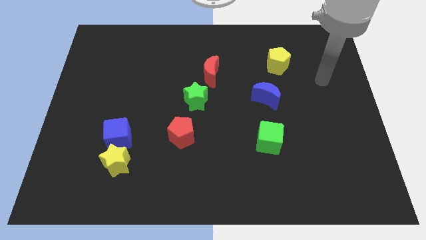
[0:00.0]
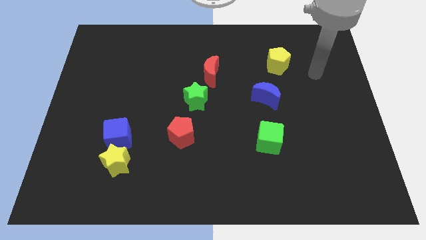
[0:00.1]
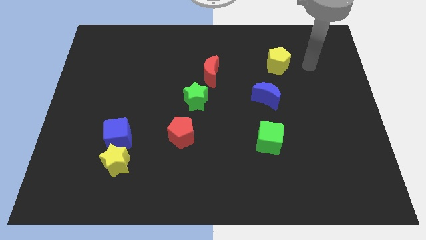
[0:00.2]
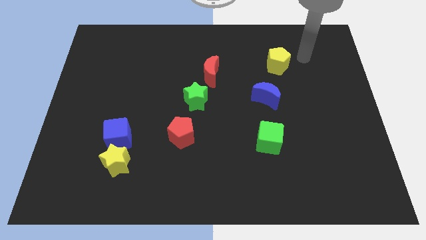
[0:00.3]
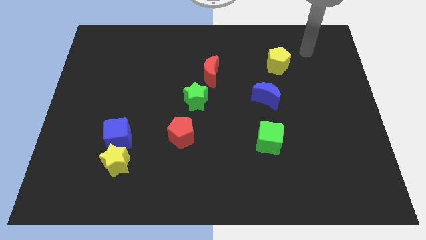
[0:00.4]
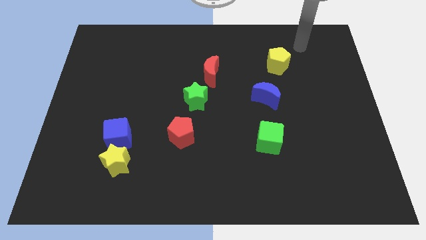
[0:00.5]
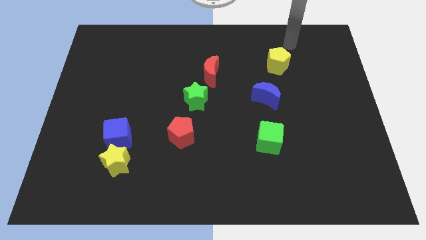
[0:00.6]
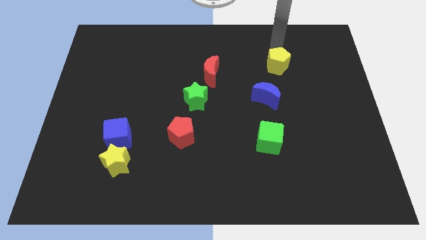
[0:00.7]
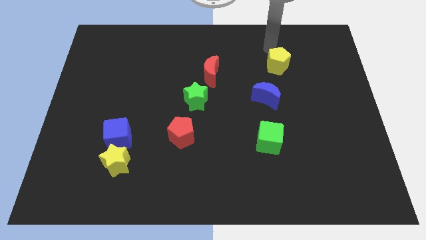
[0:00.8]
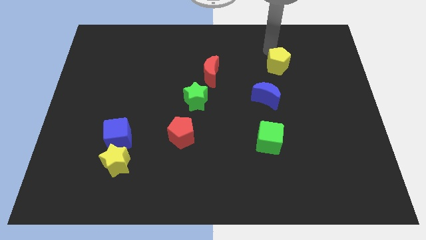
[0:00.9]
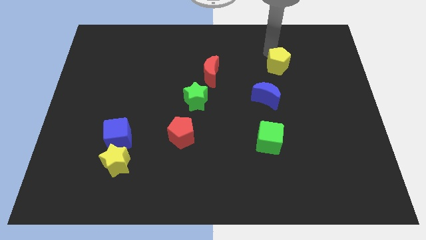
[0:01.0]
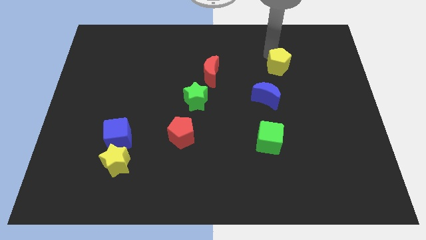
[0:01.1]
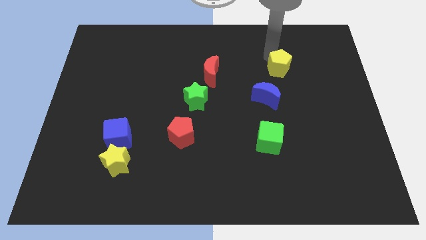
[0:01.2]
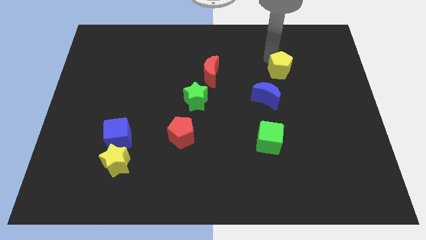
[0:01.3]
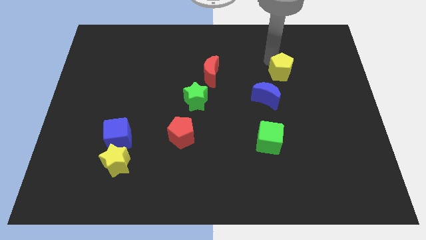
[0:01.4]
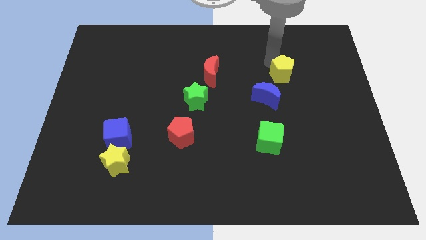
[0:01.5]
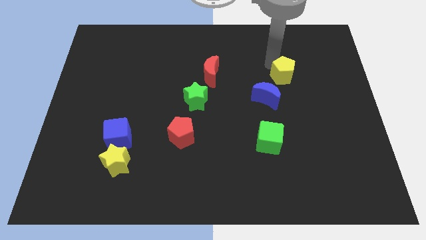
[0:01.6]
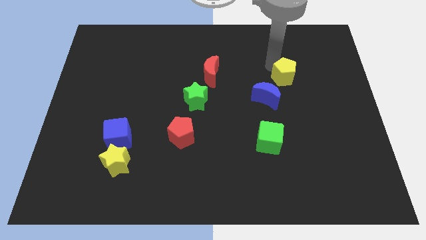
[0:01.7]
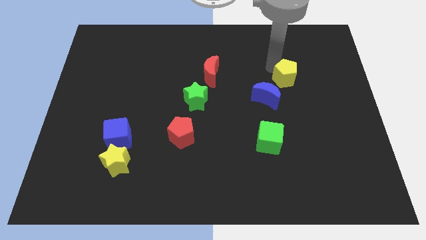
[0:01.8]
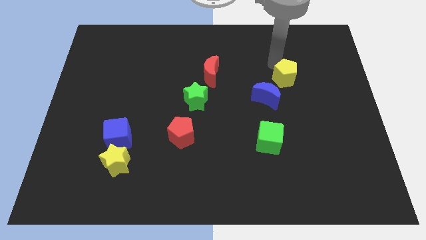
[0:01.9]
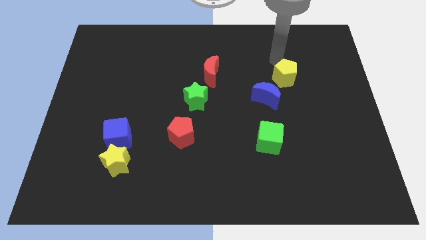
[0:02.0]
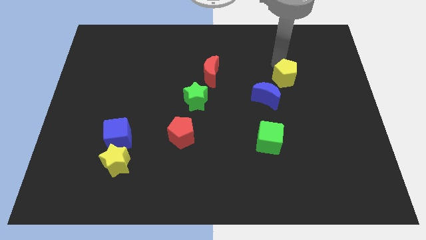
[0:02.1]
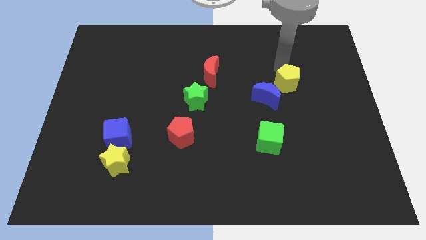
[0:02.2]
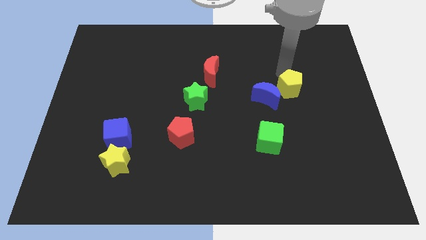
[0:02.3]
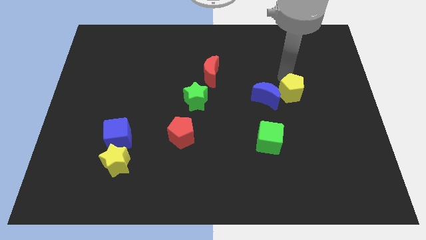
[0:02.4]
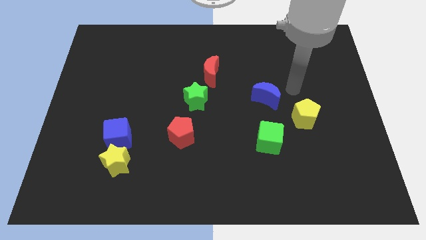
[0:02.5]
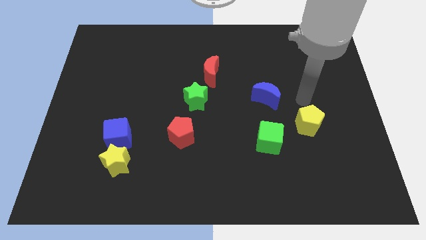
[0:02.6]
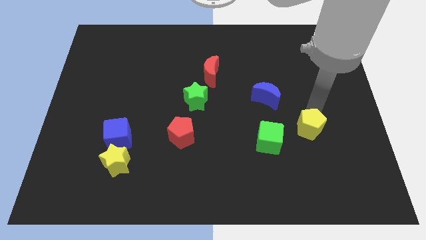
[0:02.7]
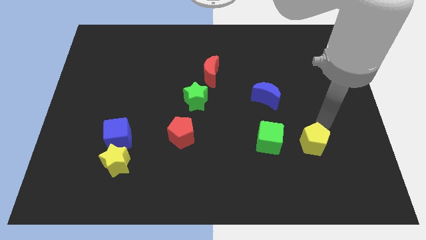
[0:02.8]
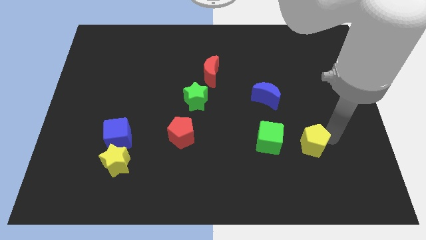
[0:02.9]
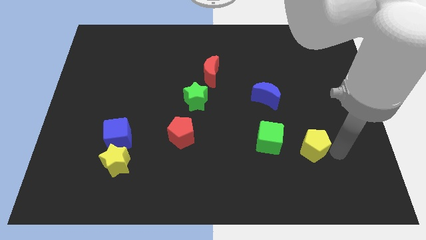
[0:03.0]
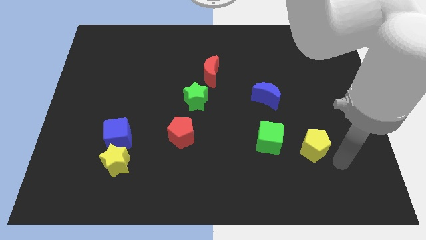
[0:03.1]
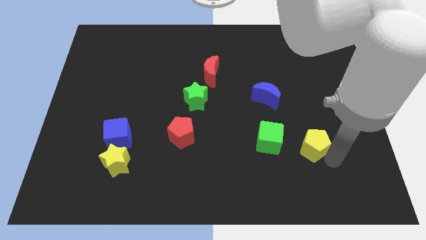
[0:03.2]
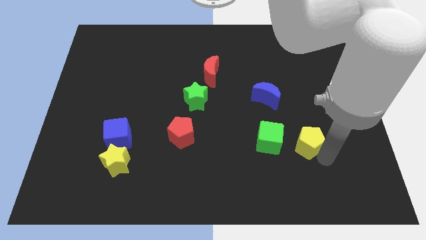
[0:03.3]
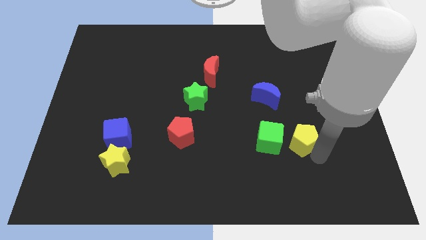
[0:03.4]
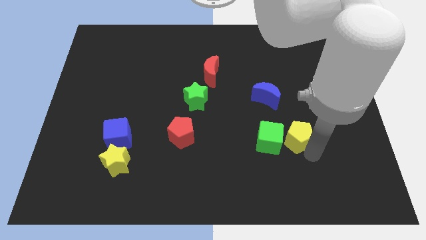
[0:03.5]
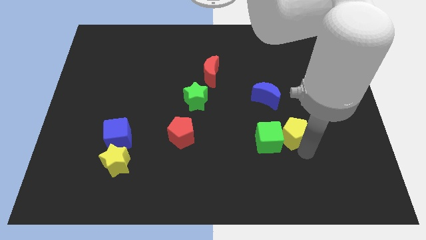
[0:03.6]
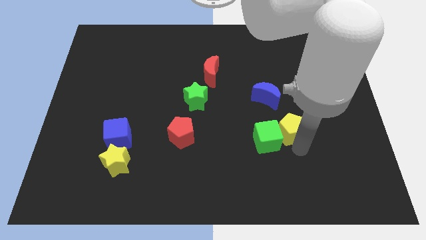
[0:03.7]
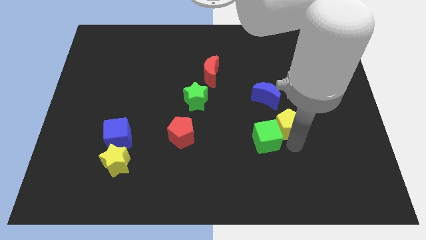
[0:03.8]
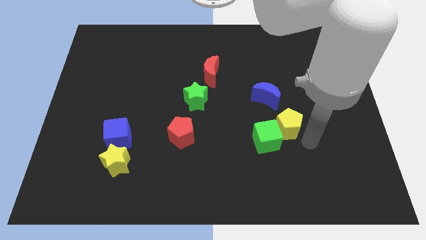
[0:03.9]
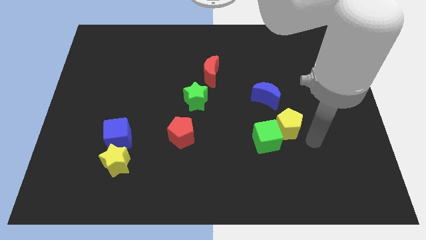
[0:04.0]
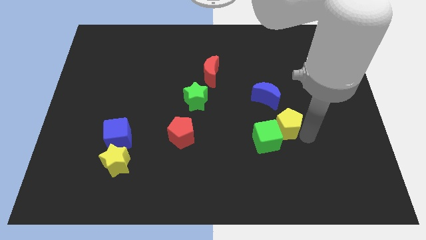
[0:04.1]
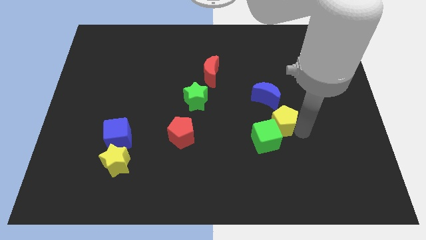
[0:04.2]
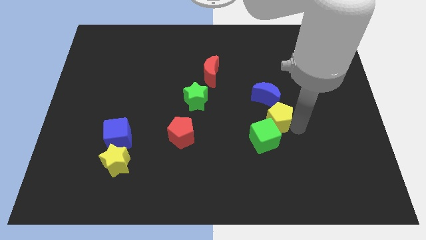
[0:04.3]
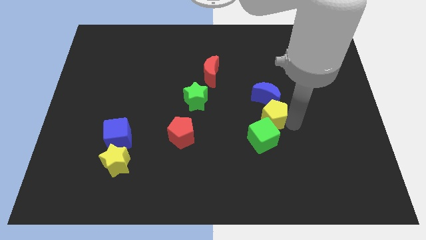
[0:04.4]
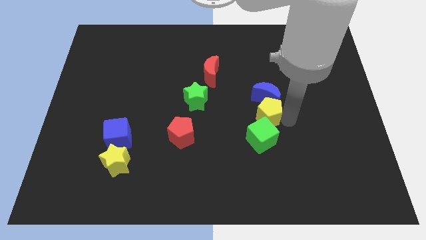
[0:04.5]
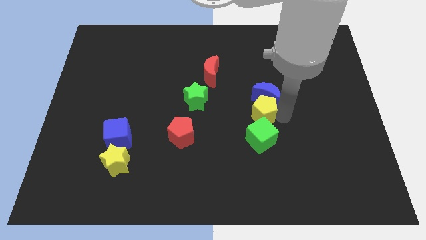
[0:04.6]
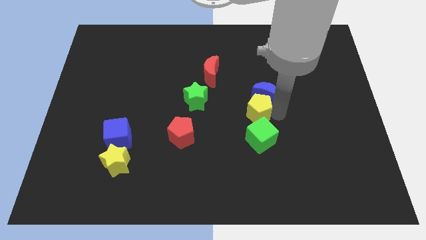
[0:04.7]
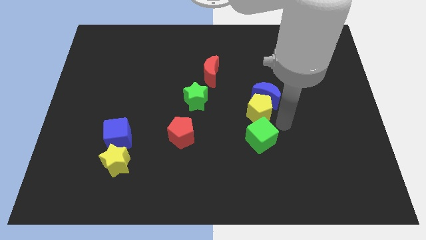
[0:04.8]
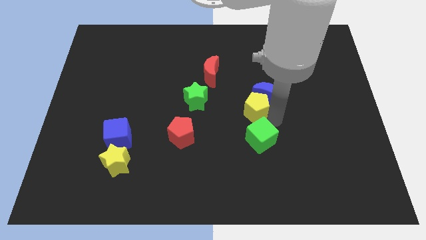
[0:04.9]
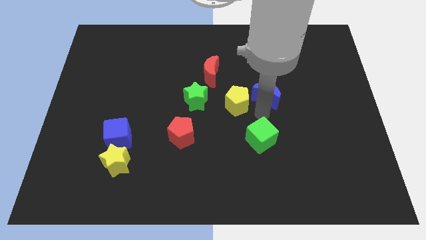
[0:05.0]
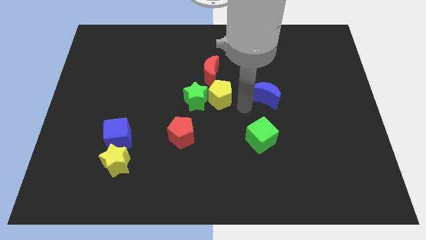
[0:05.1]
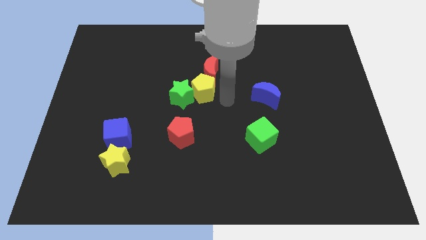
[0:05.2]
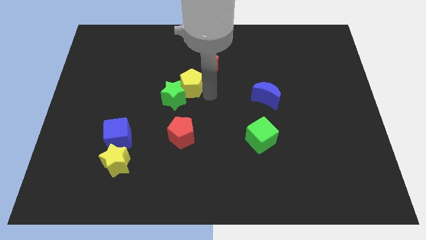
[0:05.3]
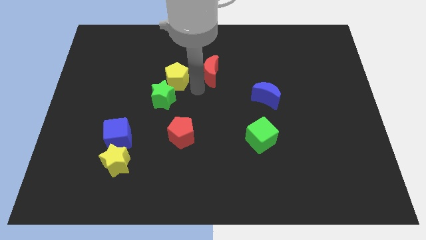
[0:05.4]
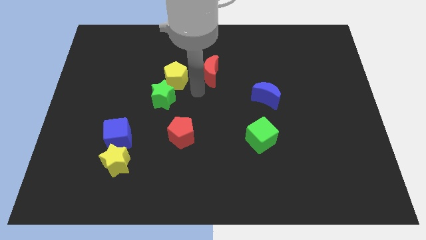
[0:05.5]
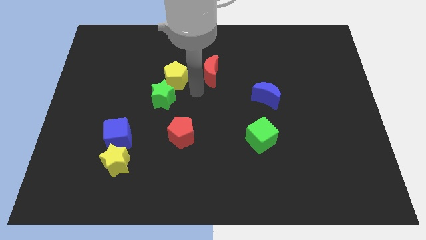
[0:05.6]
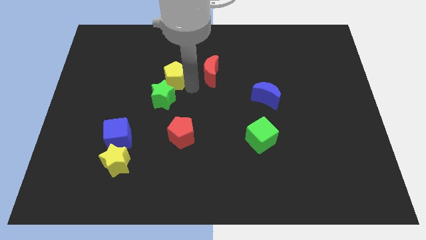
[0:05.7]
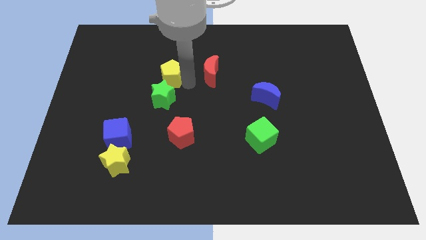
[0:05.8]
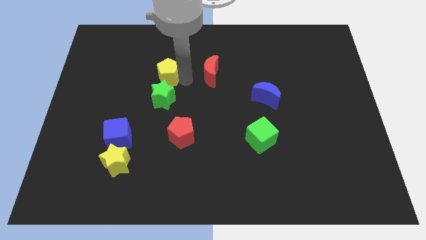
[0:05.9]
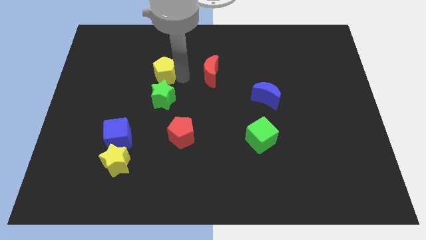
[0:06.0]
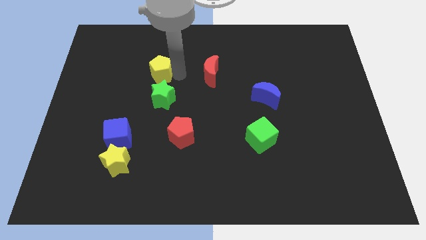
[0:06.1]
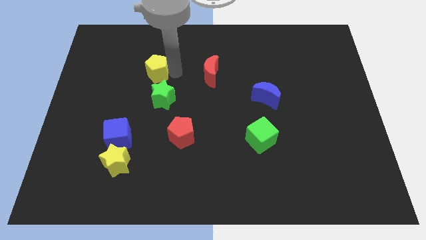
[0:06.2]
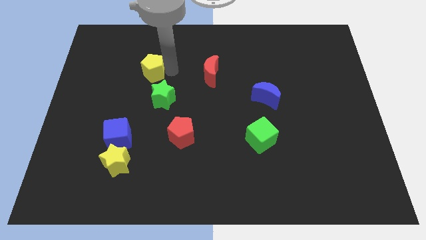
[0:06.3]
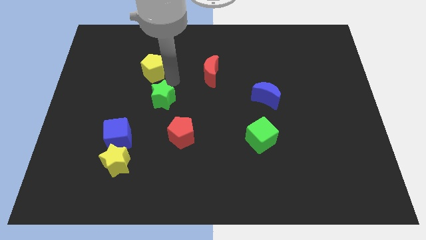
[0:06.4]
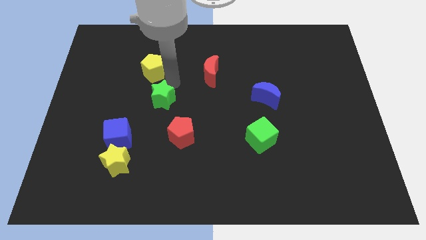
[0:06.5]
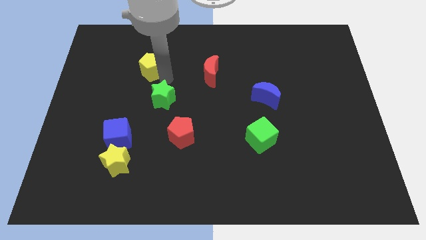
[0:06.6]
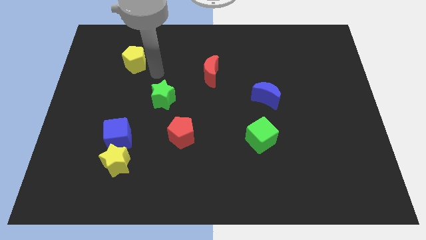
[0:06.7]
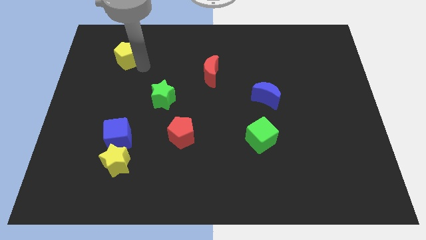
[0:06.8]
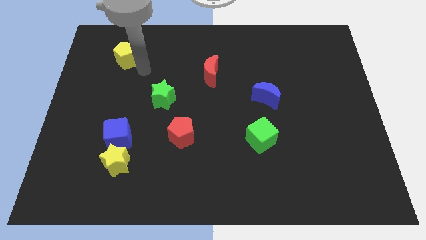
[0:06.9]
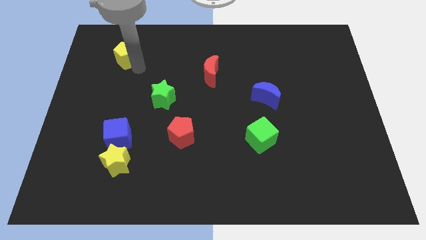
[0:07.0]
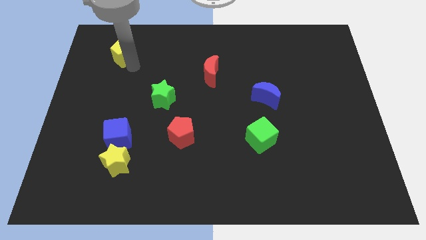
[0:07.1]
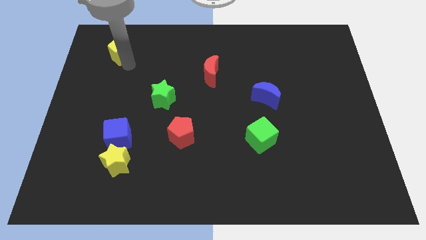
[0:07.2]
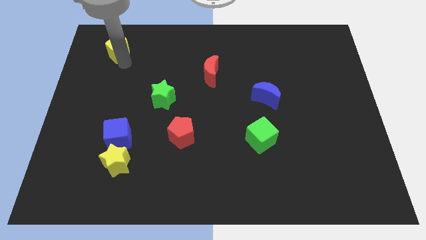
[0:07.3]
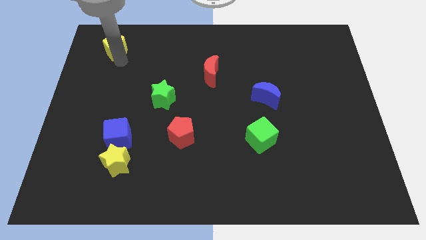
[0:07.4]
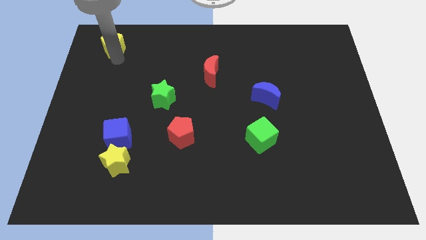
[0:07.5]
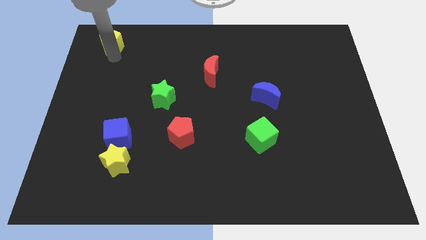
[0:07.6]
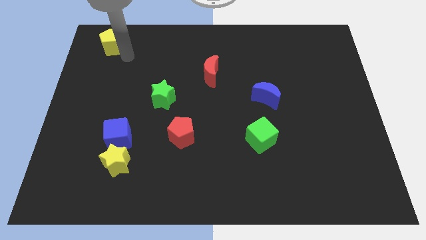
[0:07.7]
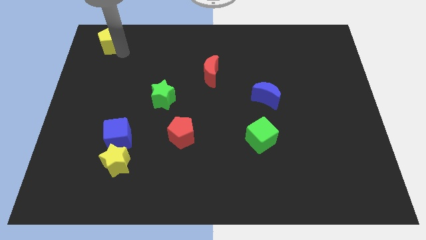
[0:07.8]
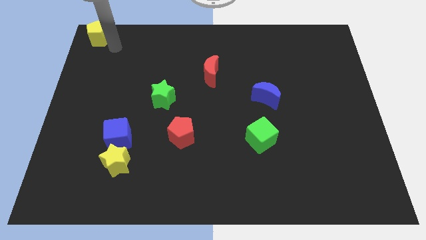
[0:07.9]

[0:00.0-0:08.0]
push the yellow pentagon to the top left
